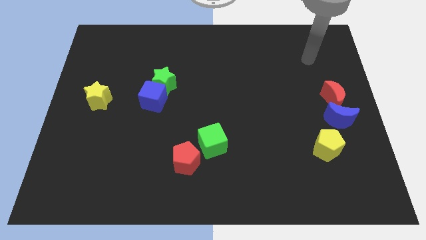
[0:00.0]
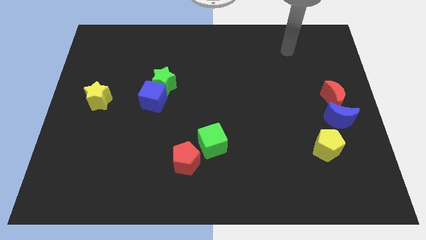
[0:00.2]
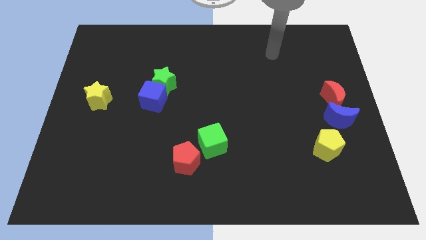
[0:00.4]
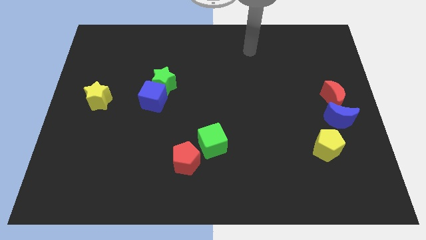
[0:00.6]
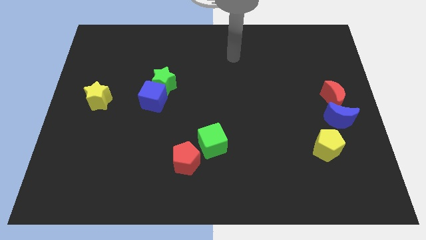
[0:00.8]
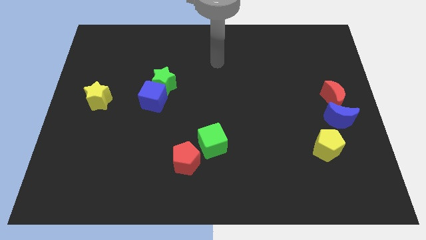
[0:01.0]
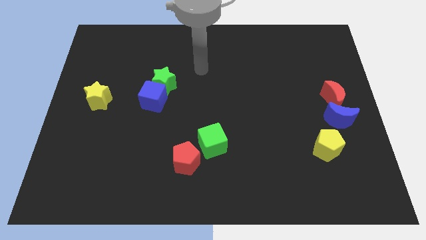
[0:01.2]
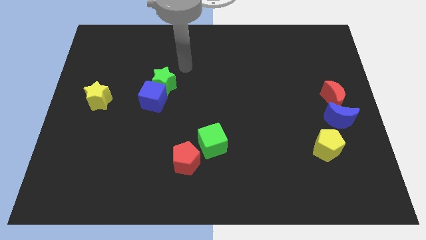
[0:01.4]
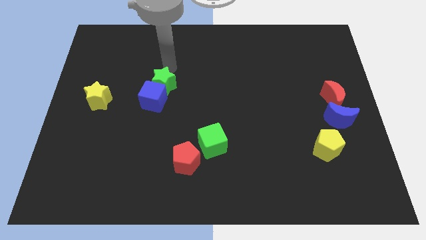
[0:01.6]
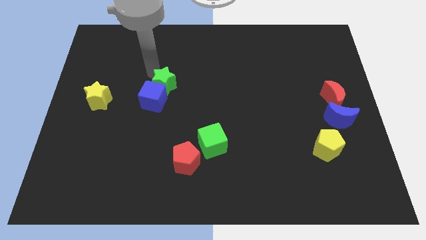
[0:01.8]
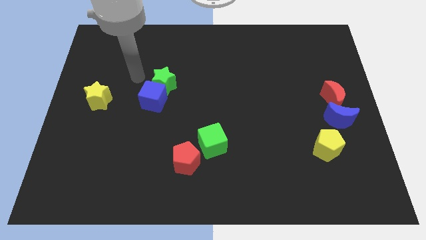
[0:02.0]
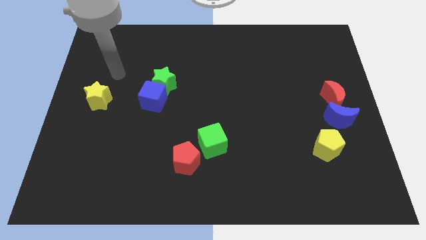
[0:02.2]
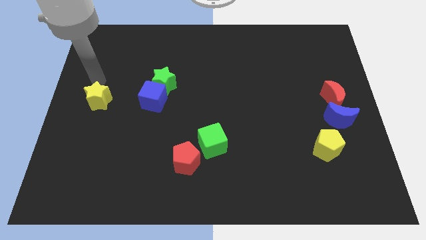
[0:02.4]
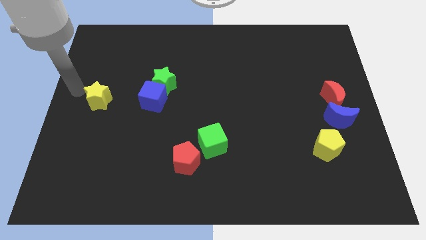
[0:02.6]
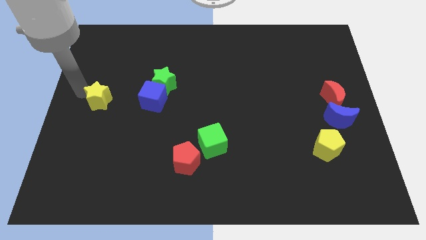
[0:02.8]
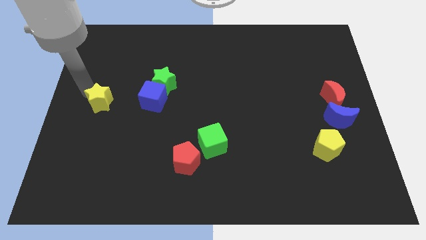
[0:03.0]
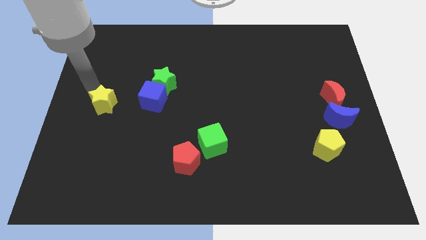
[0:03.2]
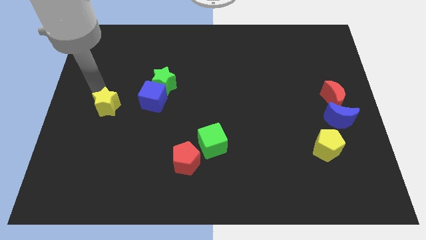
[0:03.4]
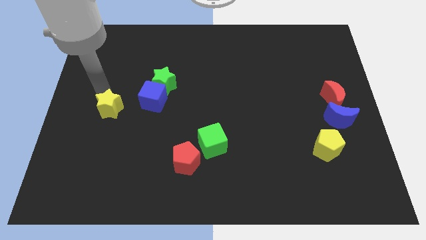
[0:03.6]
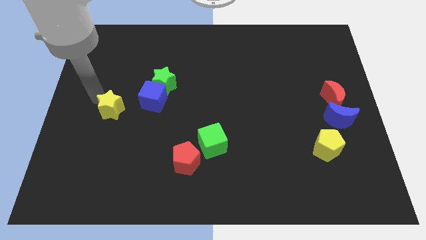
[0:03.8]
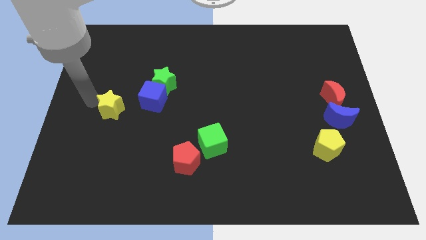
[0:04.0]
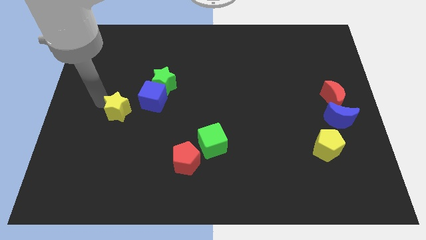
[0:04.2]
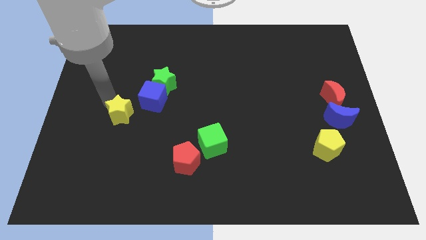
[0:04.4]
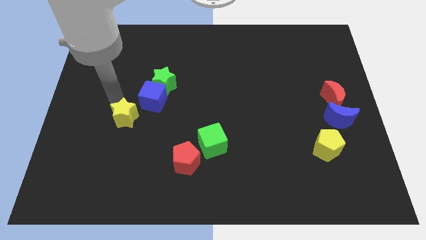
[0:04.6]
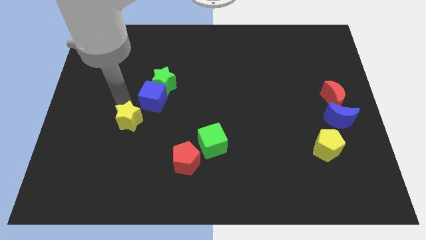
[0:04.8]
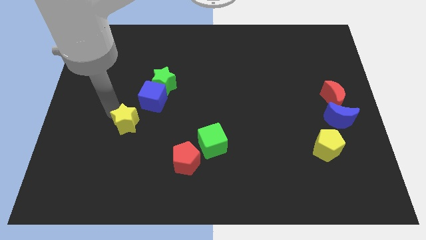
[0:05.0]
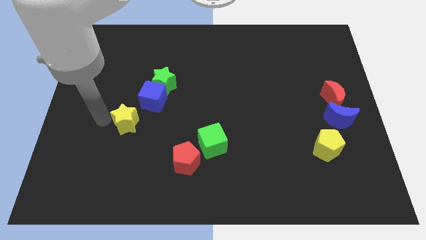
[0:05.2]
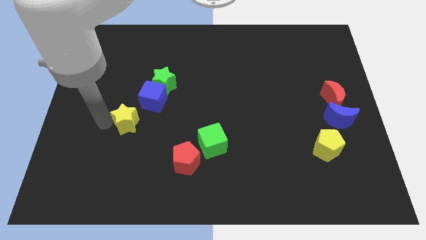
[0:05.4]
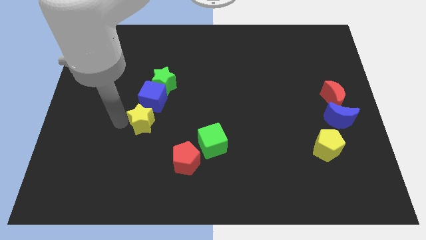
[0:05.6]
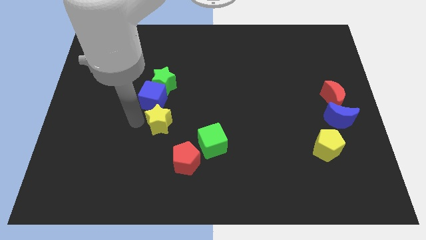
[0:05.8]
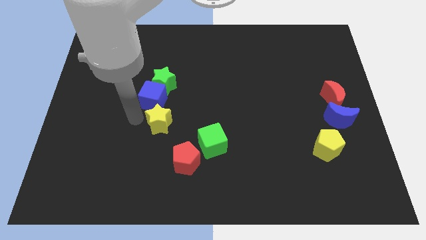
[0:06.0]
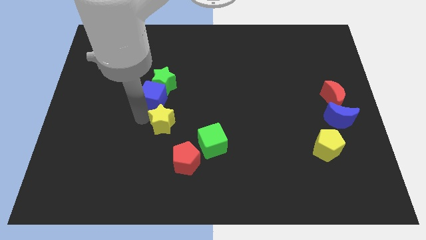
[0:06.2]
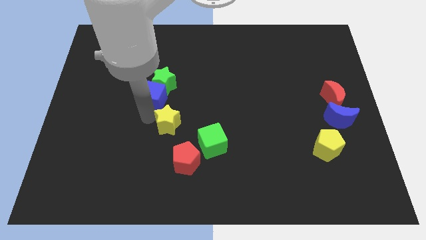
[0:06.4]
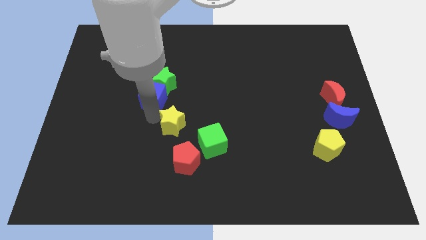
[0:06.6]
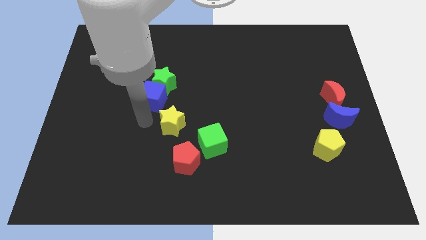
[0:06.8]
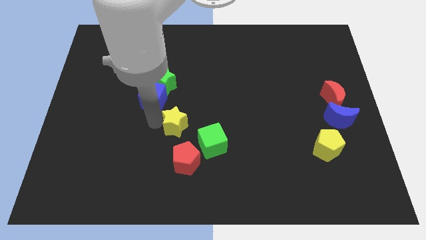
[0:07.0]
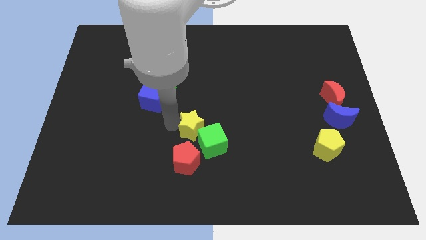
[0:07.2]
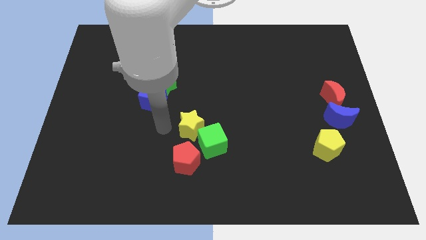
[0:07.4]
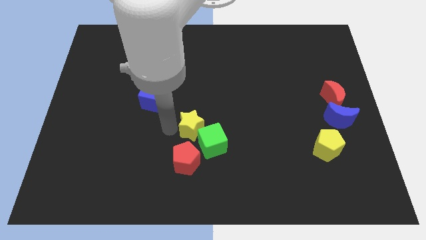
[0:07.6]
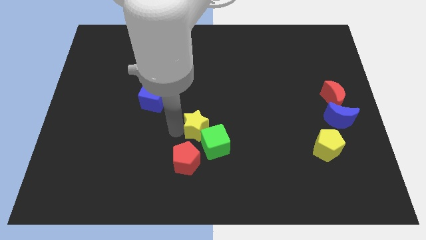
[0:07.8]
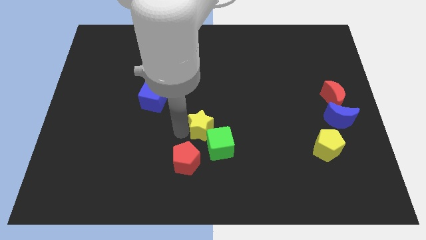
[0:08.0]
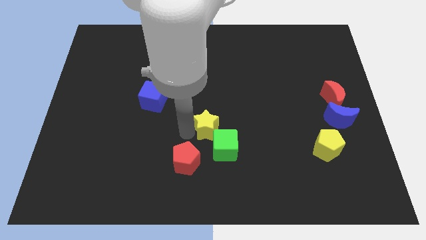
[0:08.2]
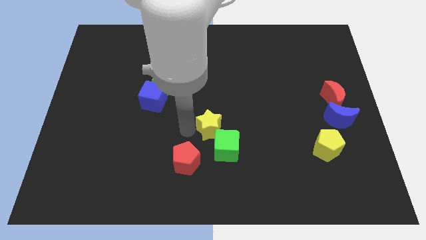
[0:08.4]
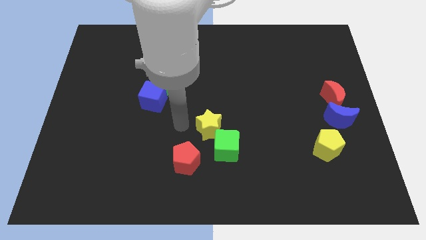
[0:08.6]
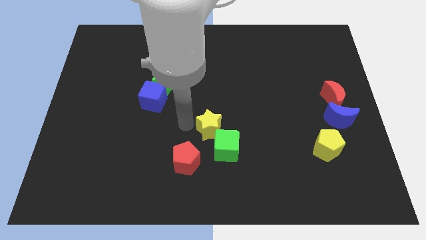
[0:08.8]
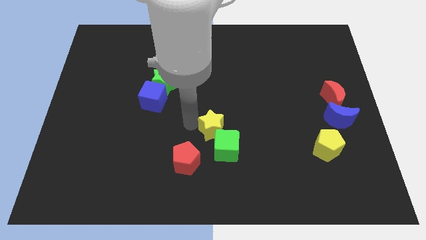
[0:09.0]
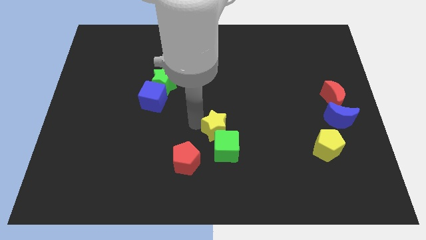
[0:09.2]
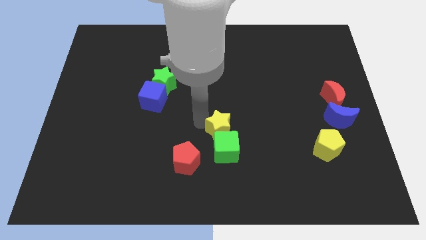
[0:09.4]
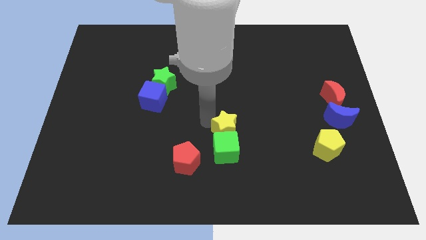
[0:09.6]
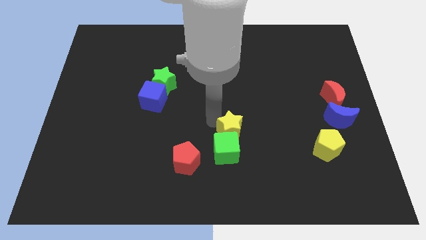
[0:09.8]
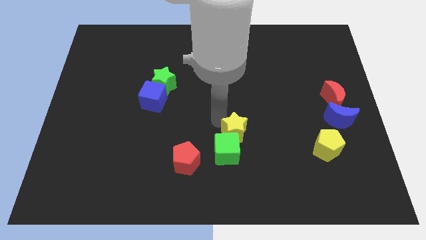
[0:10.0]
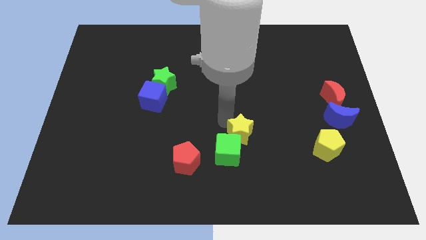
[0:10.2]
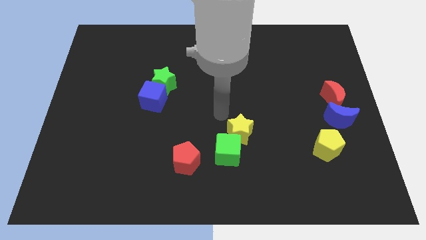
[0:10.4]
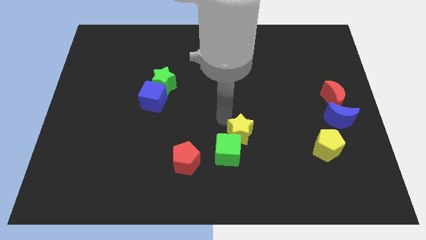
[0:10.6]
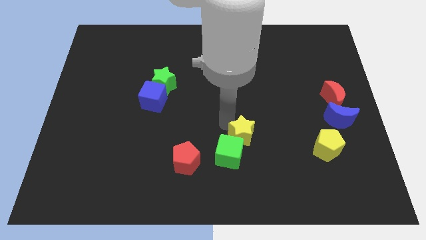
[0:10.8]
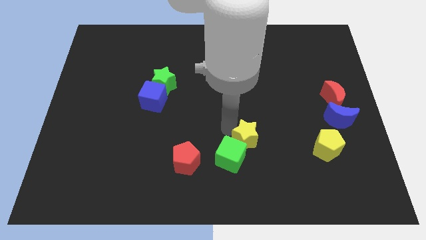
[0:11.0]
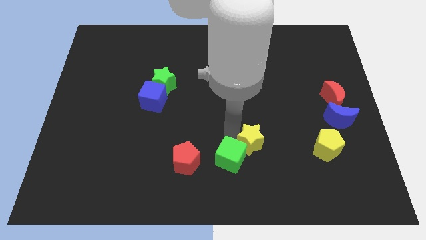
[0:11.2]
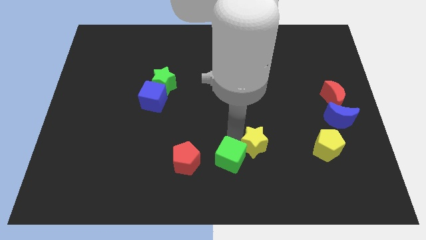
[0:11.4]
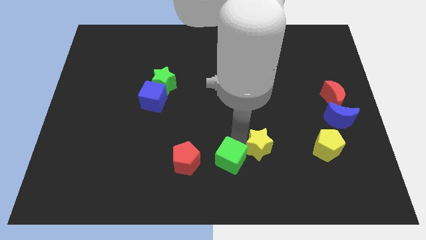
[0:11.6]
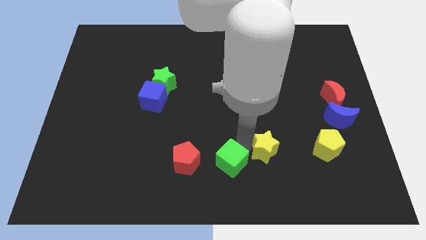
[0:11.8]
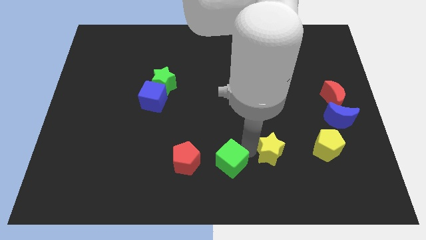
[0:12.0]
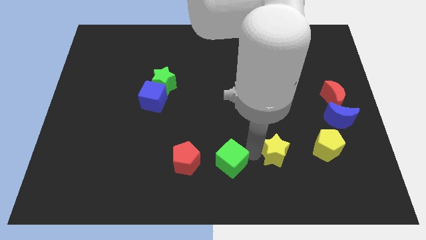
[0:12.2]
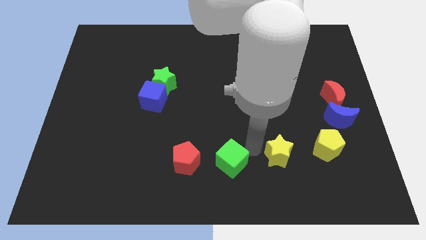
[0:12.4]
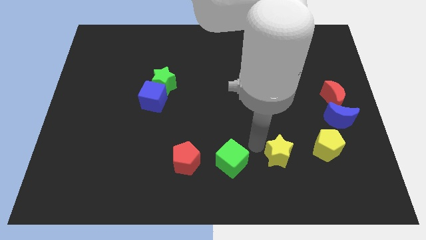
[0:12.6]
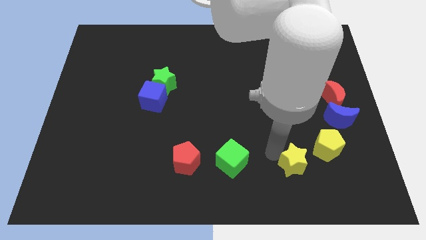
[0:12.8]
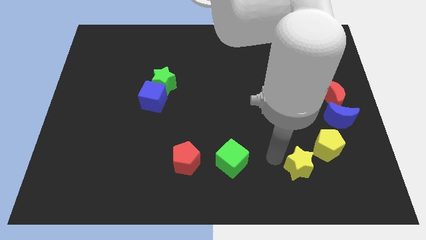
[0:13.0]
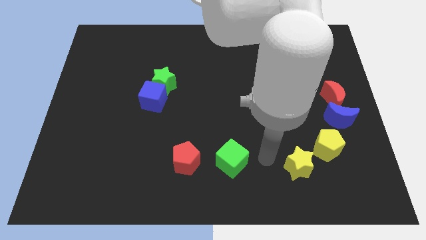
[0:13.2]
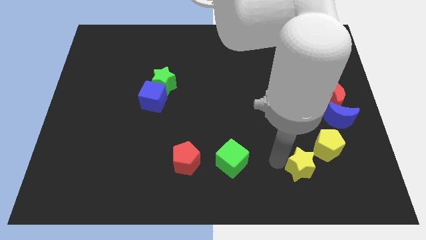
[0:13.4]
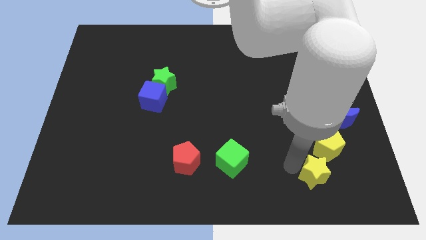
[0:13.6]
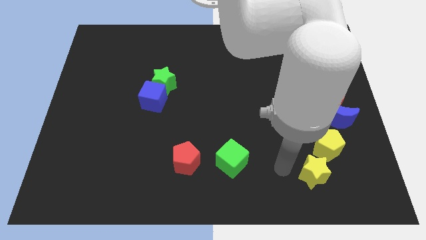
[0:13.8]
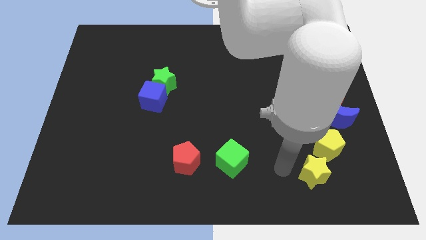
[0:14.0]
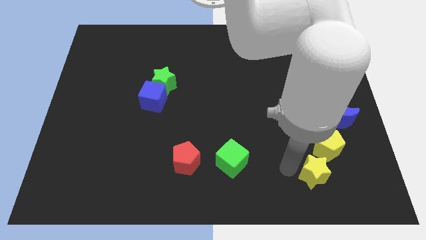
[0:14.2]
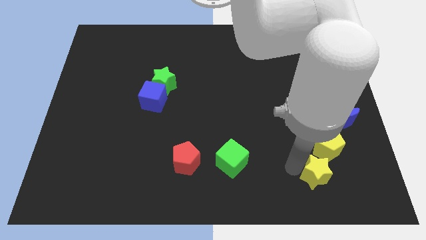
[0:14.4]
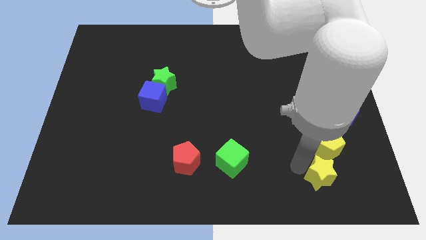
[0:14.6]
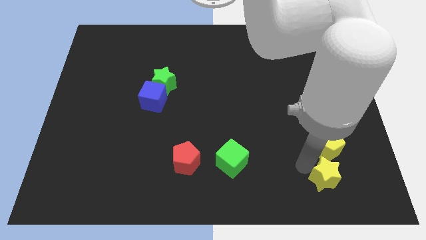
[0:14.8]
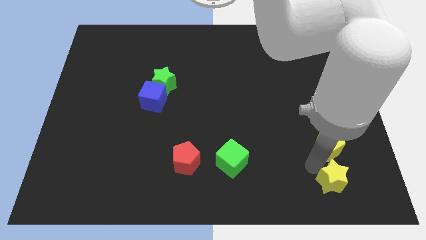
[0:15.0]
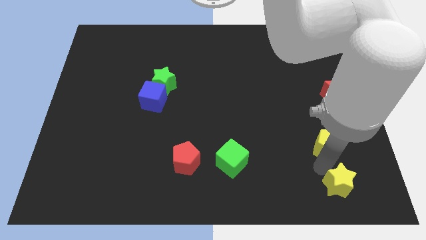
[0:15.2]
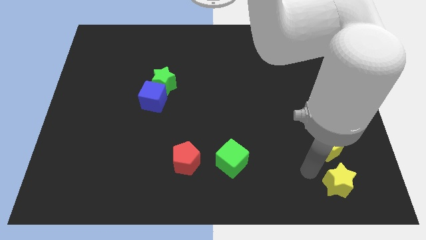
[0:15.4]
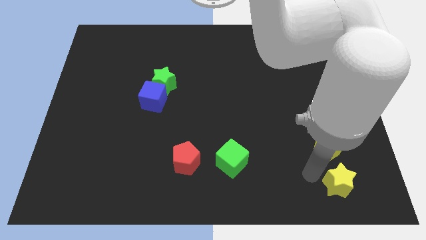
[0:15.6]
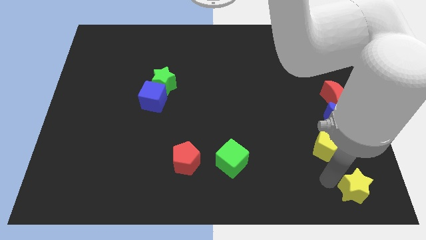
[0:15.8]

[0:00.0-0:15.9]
push the yellow star to the bottom right corner
